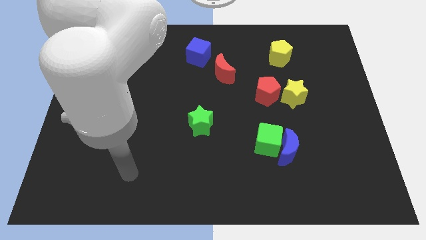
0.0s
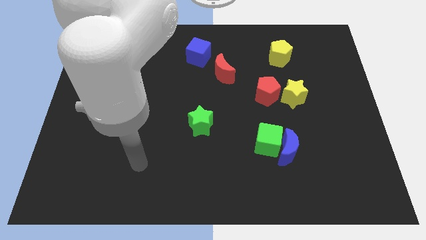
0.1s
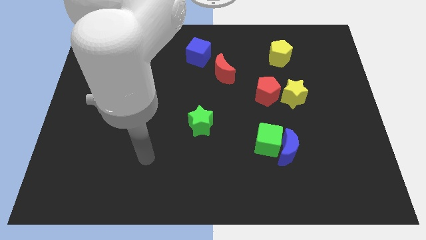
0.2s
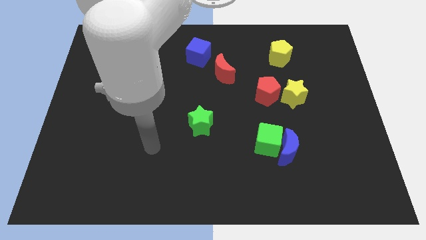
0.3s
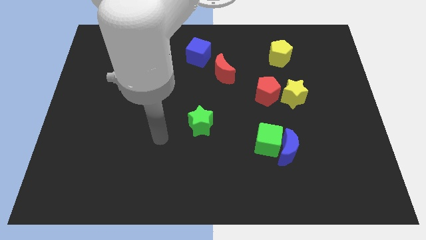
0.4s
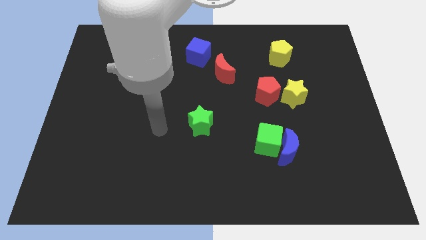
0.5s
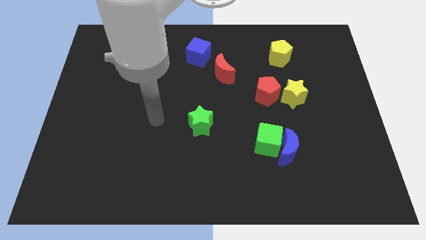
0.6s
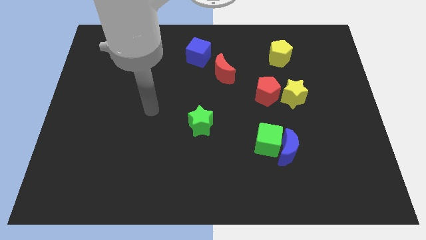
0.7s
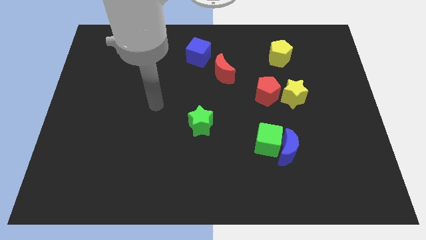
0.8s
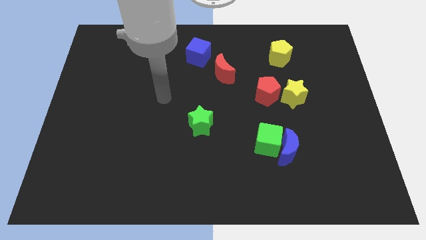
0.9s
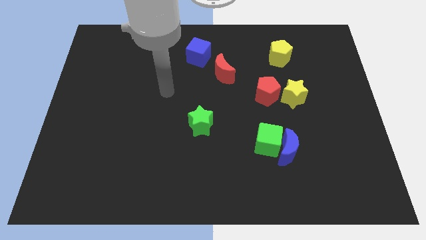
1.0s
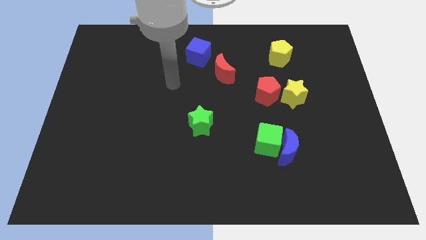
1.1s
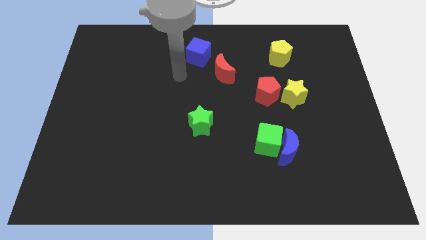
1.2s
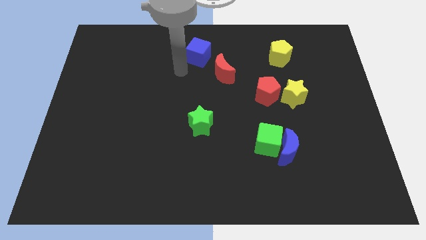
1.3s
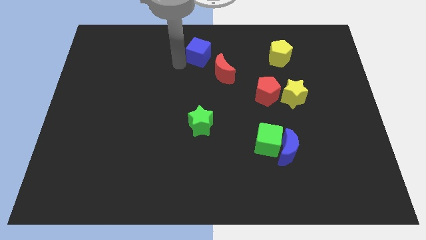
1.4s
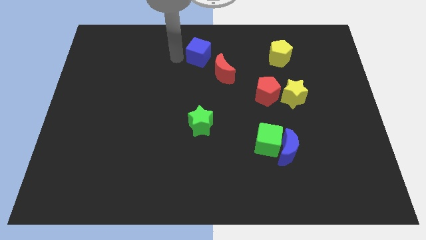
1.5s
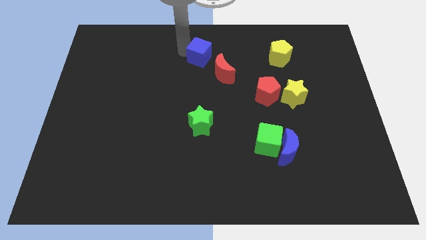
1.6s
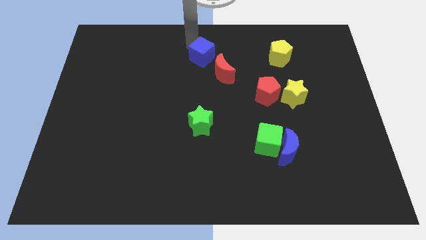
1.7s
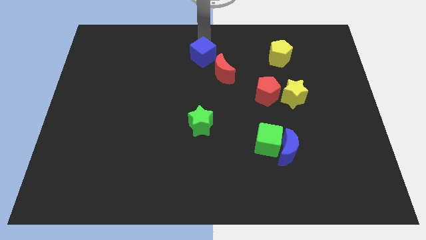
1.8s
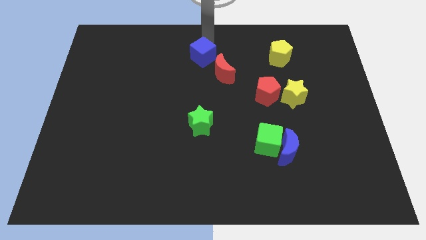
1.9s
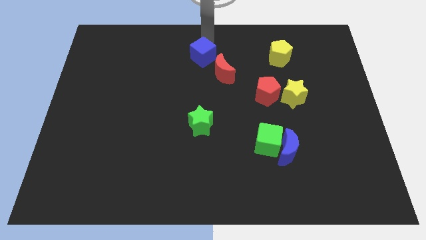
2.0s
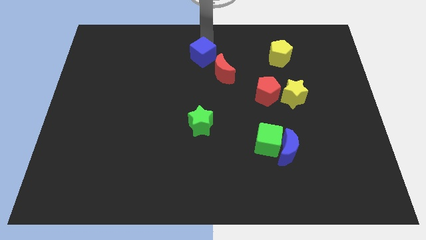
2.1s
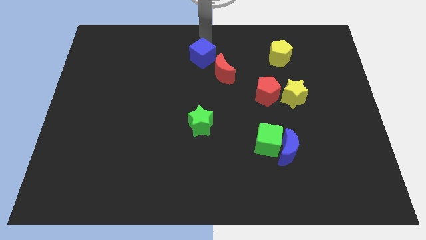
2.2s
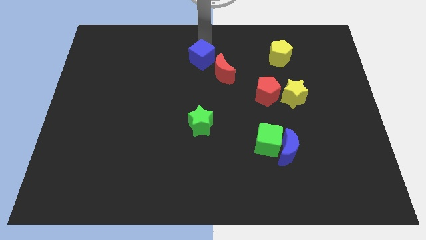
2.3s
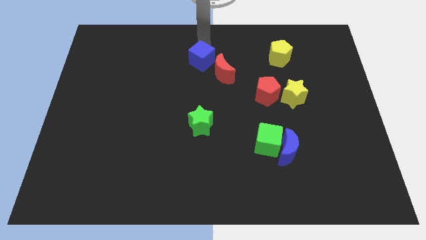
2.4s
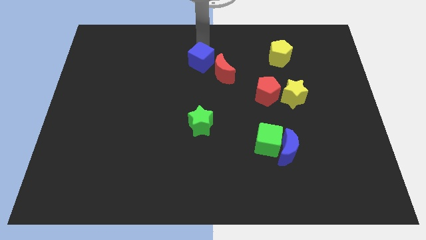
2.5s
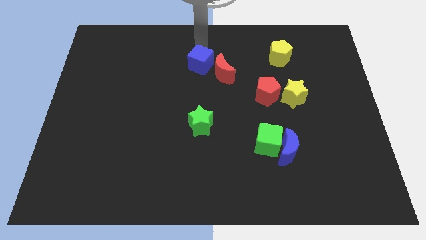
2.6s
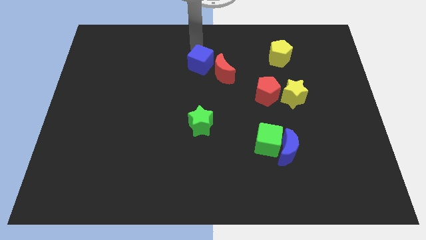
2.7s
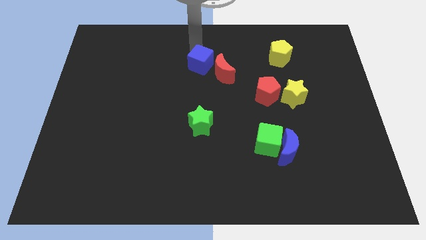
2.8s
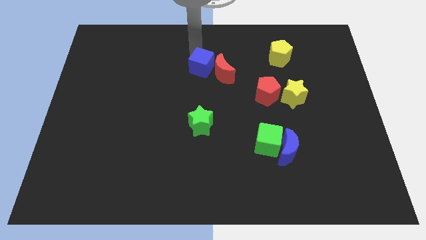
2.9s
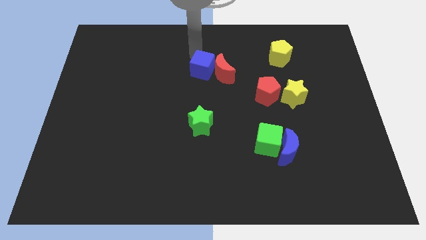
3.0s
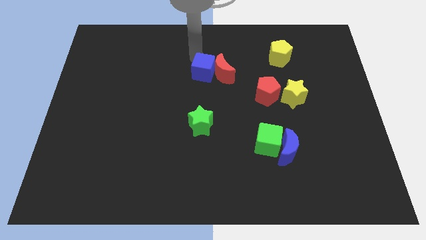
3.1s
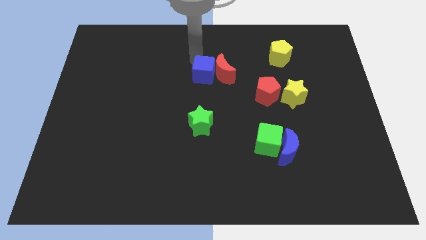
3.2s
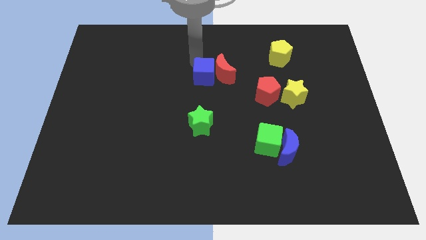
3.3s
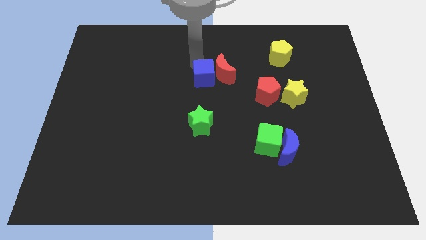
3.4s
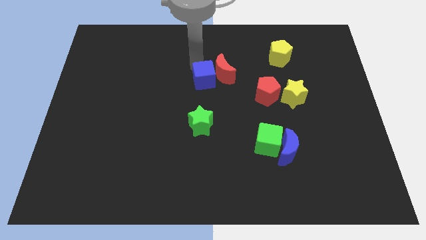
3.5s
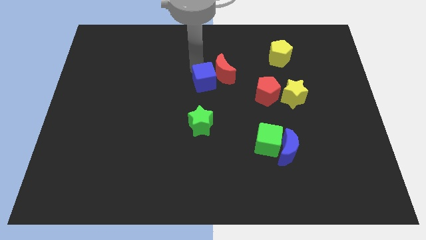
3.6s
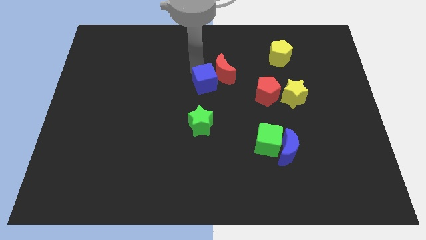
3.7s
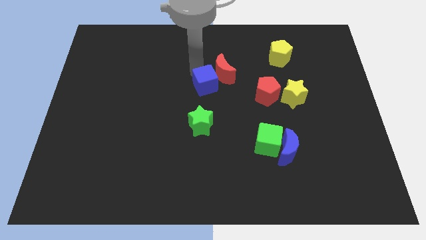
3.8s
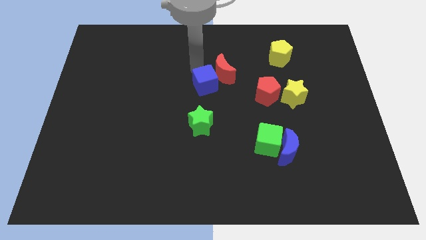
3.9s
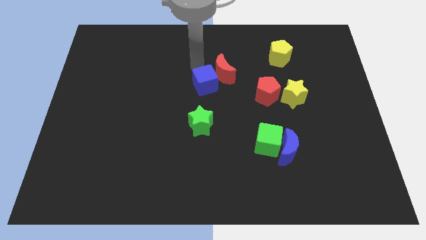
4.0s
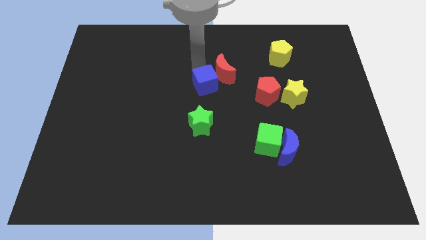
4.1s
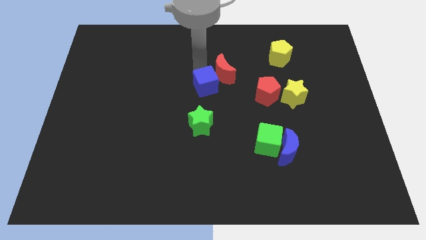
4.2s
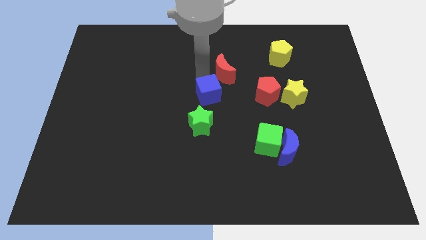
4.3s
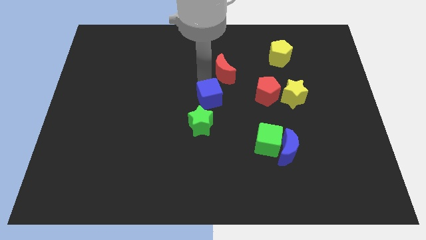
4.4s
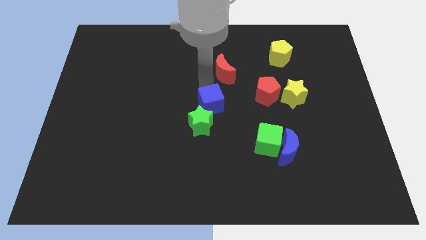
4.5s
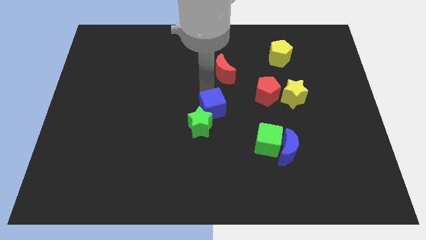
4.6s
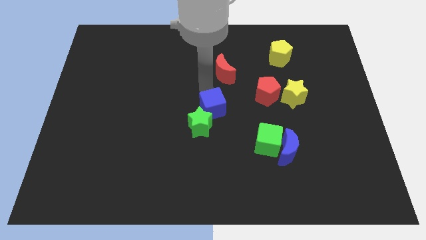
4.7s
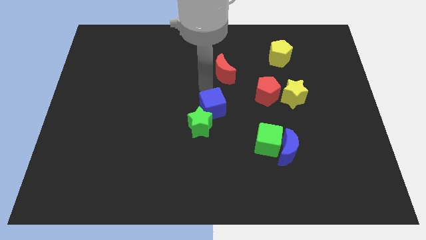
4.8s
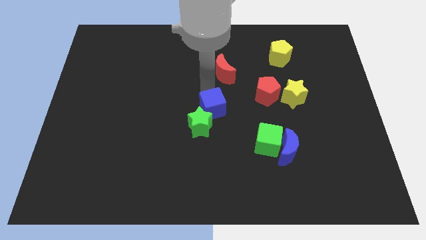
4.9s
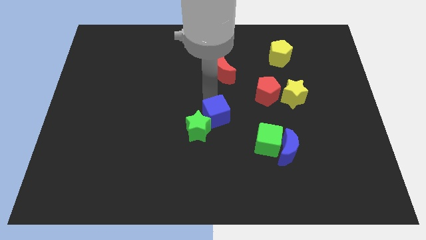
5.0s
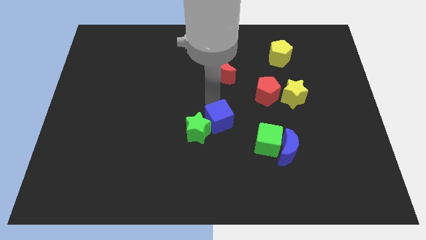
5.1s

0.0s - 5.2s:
push the blue cube down

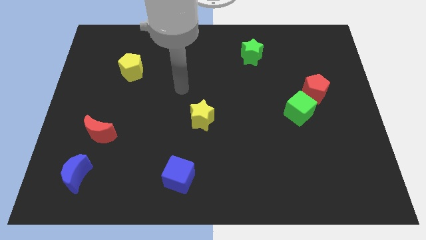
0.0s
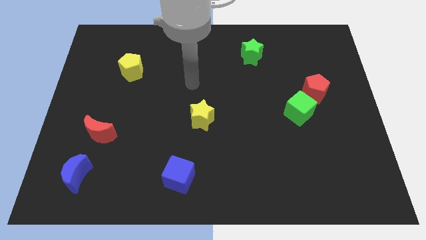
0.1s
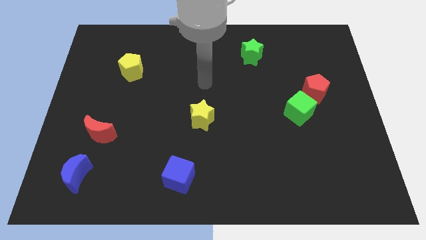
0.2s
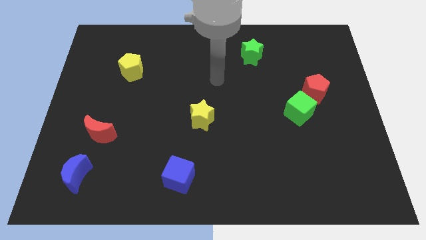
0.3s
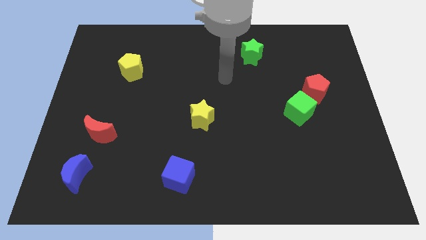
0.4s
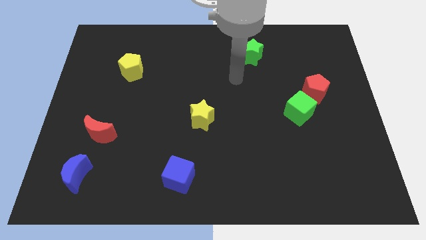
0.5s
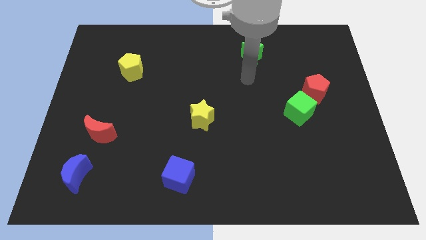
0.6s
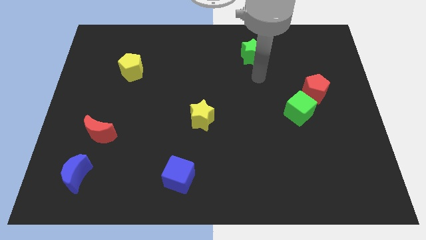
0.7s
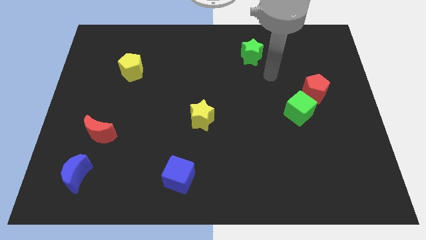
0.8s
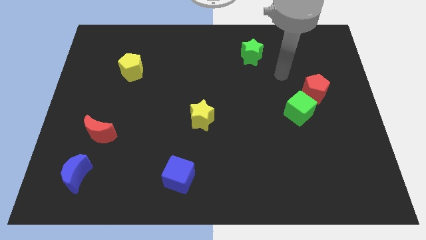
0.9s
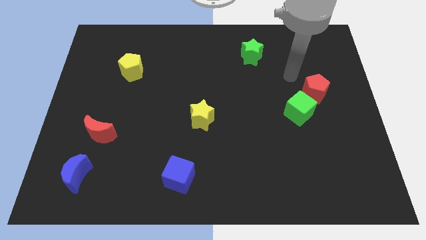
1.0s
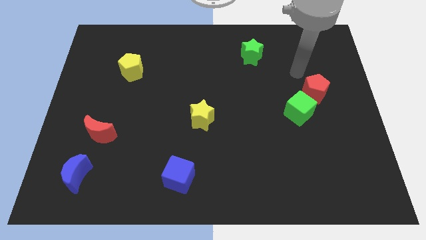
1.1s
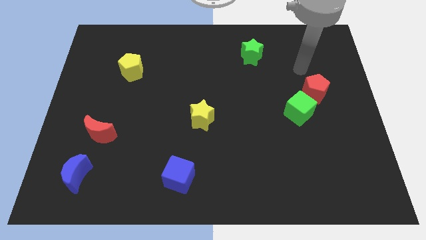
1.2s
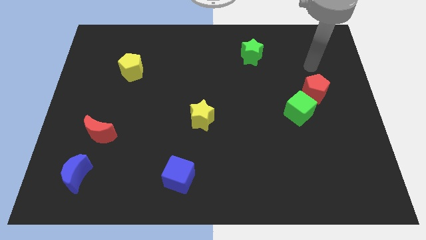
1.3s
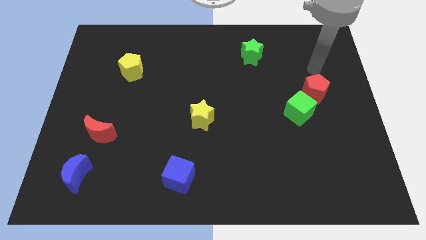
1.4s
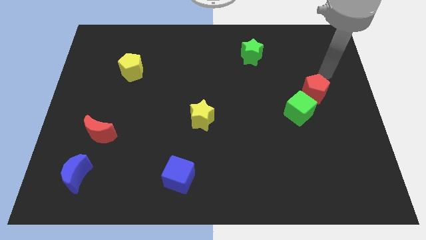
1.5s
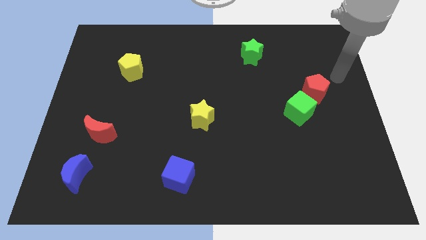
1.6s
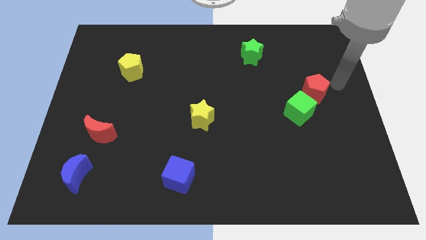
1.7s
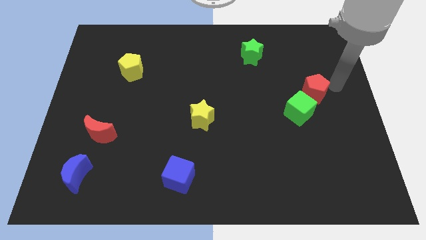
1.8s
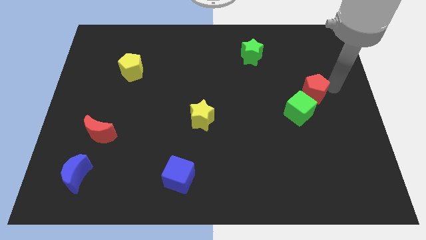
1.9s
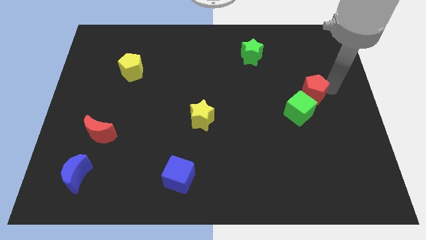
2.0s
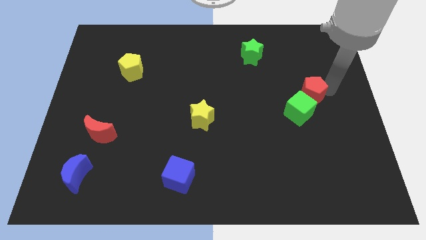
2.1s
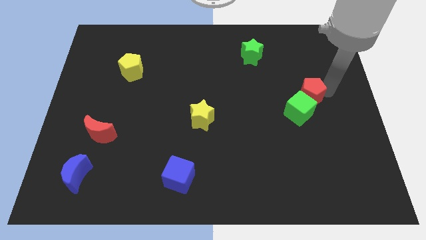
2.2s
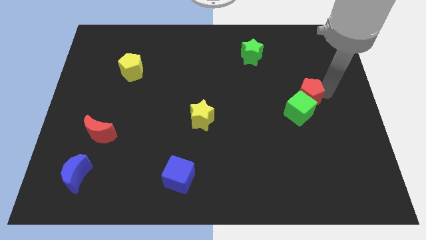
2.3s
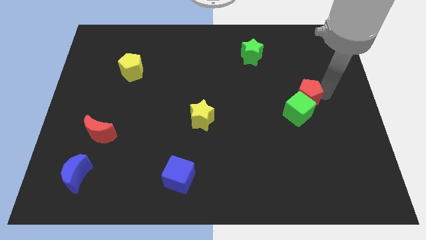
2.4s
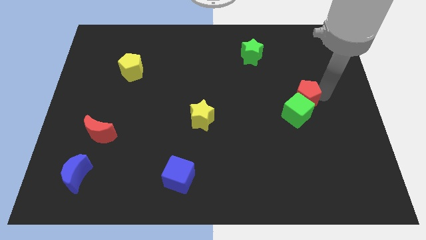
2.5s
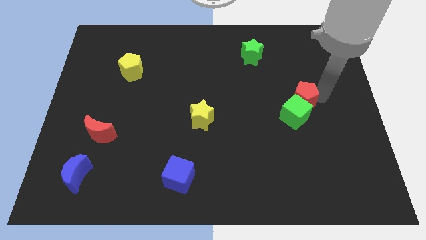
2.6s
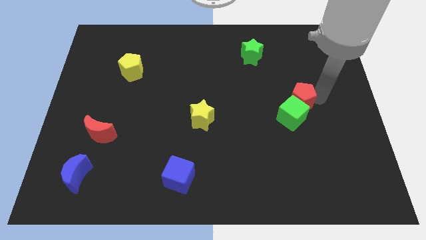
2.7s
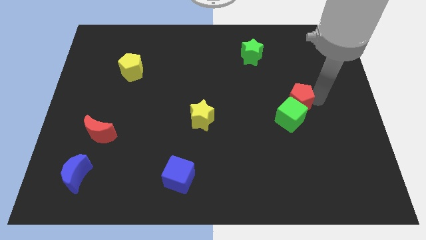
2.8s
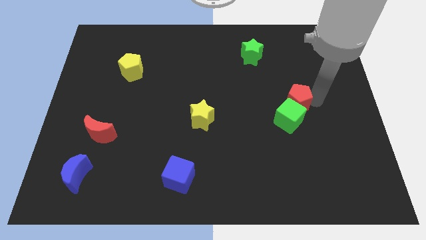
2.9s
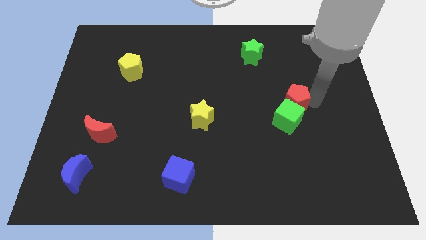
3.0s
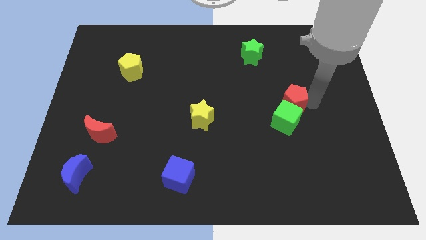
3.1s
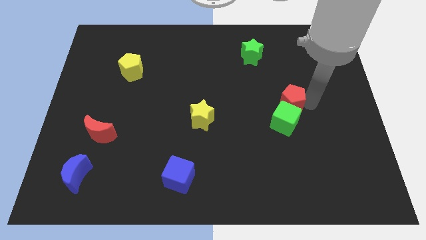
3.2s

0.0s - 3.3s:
slide the red pentagon downwards and to the left diagonally slightly
